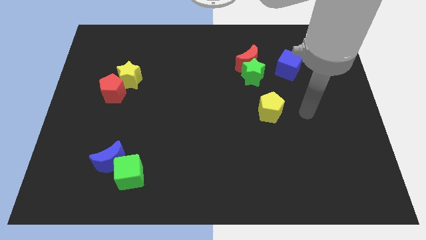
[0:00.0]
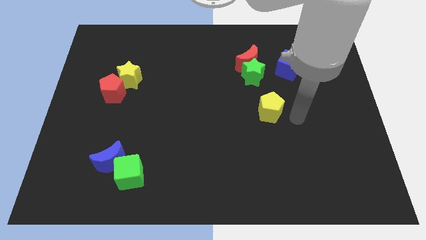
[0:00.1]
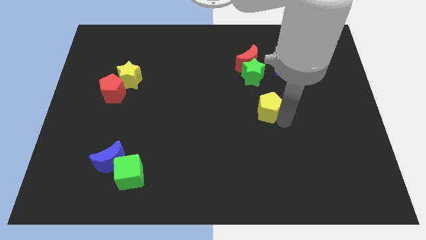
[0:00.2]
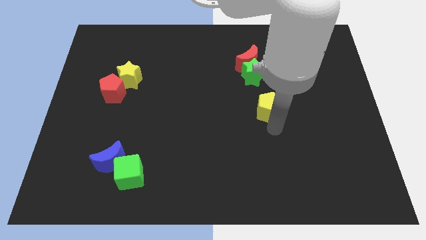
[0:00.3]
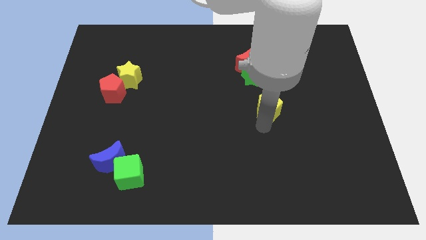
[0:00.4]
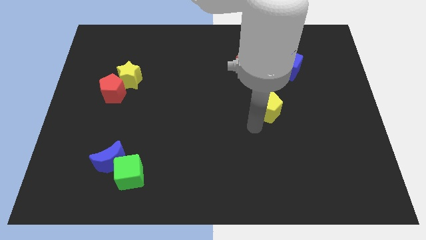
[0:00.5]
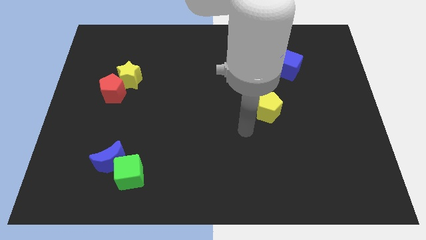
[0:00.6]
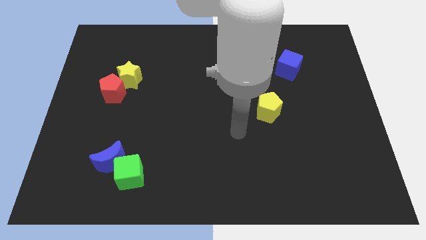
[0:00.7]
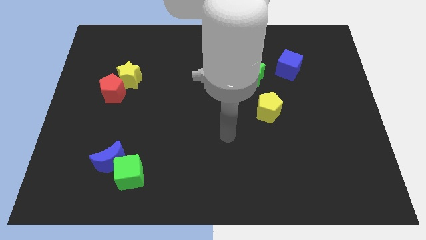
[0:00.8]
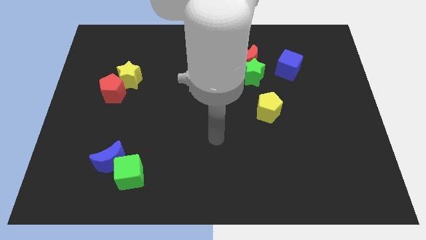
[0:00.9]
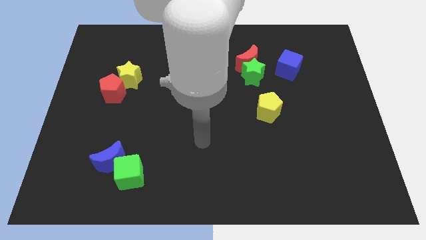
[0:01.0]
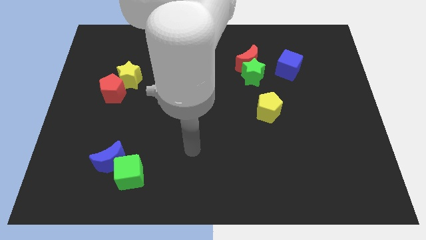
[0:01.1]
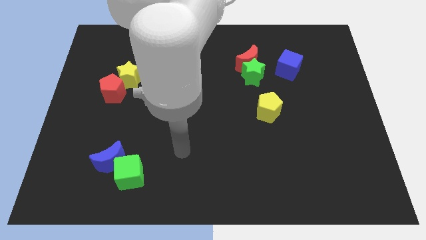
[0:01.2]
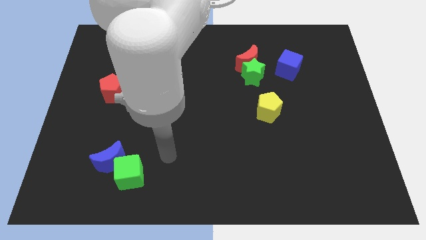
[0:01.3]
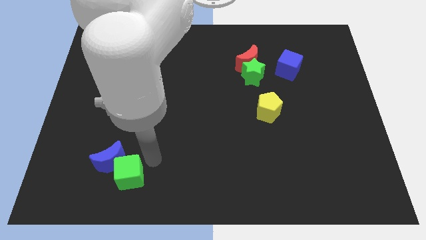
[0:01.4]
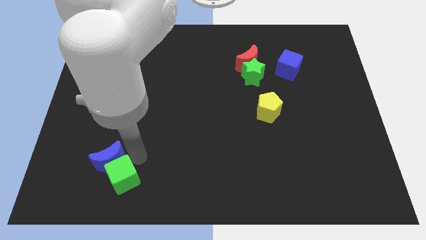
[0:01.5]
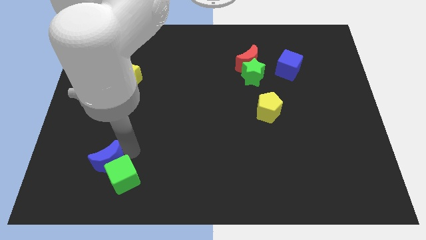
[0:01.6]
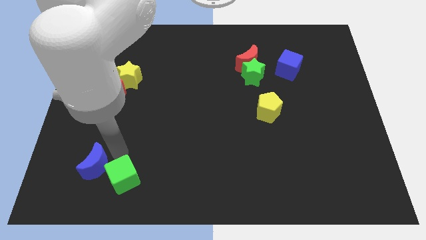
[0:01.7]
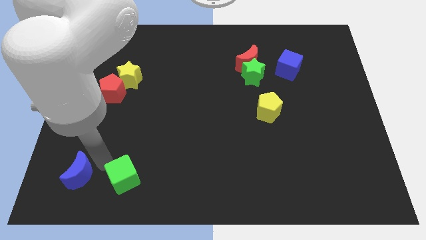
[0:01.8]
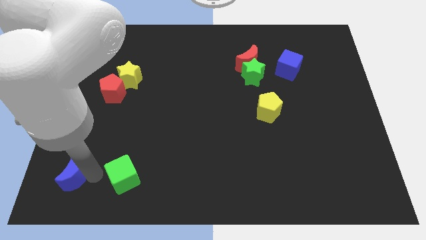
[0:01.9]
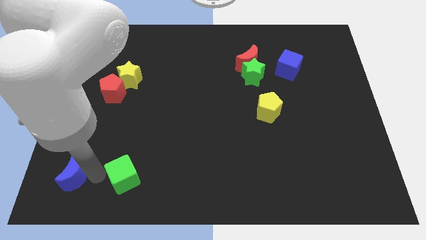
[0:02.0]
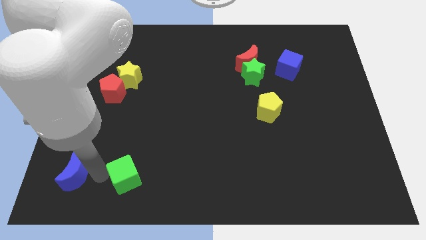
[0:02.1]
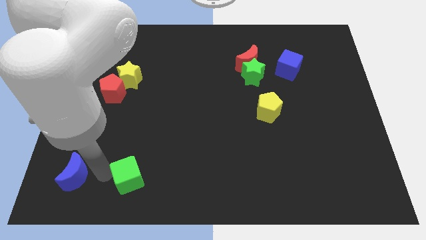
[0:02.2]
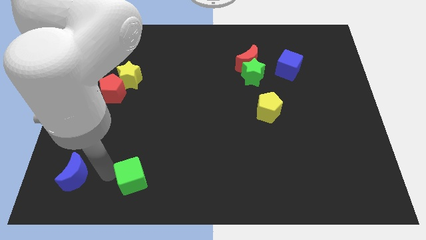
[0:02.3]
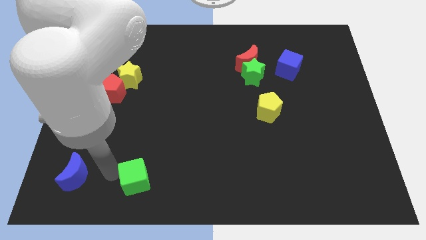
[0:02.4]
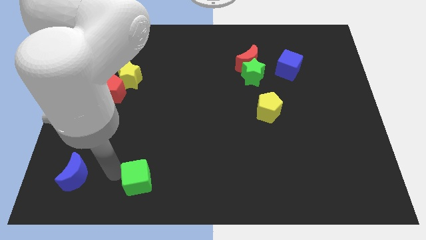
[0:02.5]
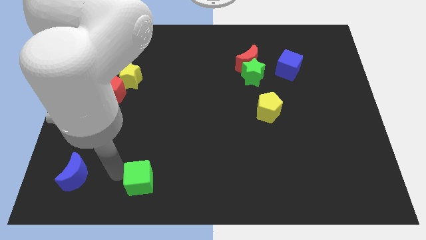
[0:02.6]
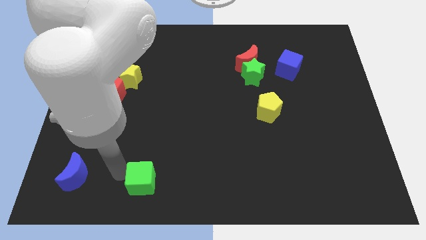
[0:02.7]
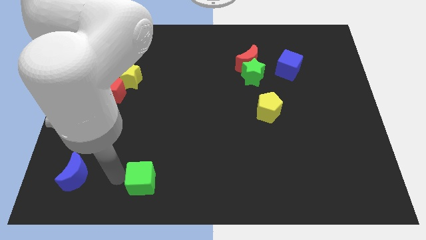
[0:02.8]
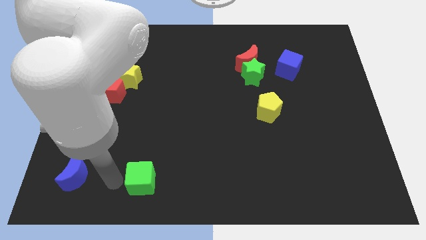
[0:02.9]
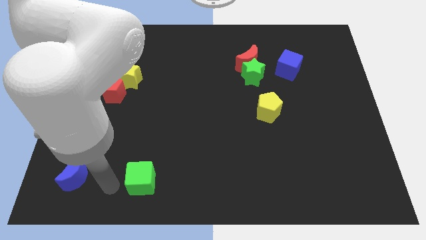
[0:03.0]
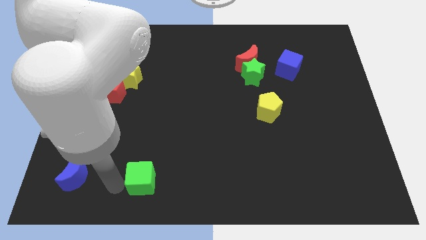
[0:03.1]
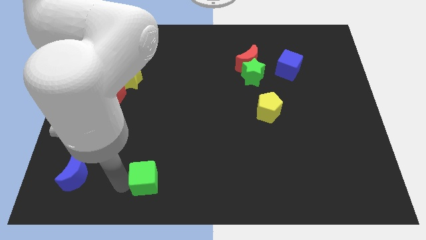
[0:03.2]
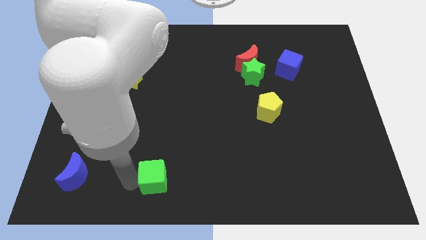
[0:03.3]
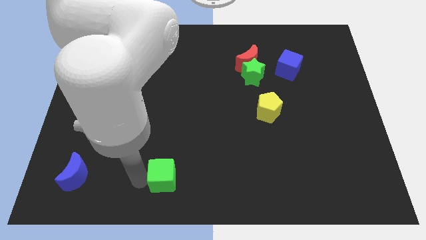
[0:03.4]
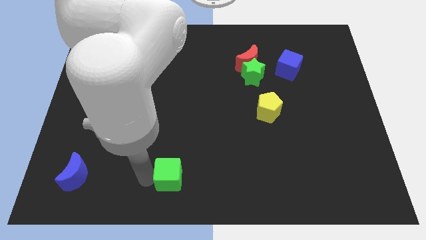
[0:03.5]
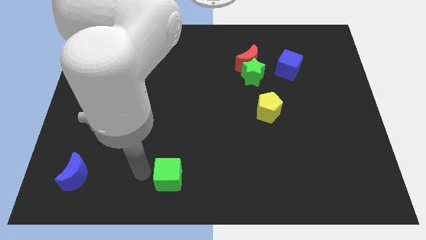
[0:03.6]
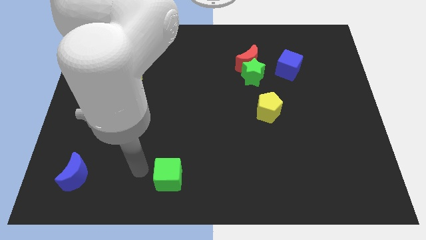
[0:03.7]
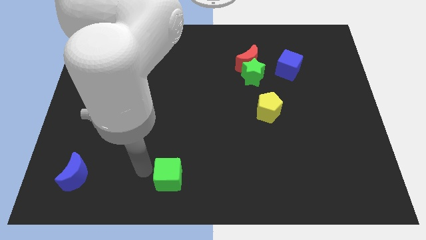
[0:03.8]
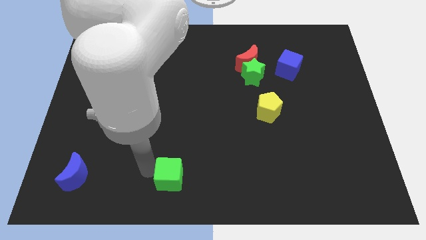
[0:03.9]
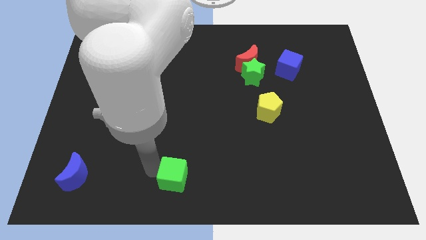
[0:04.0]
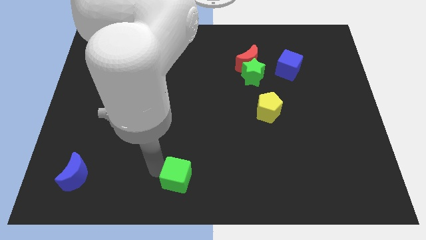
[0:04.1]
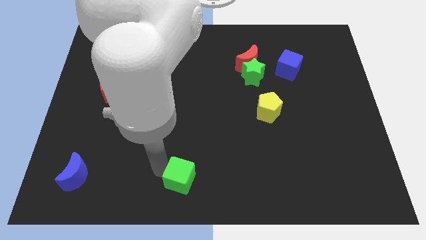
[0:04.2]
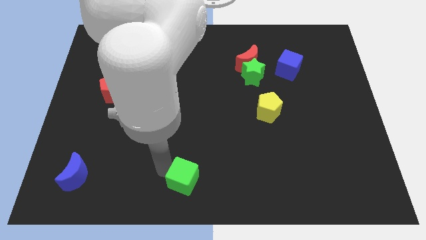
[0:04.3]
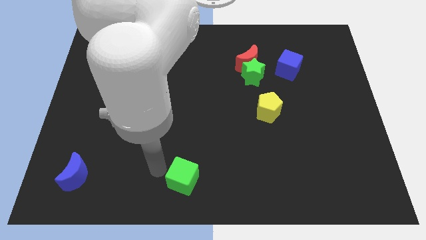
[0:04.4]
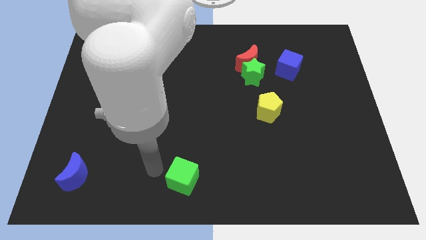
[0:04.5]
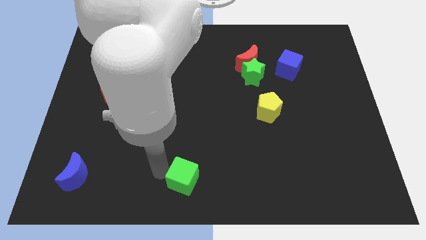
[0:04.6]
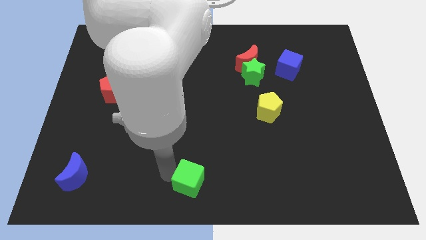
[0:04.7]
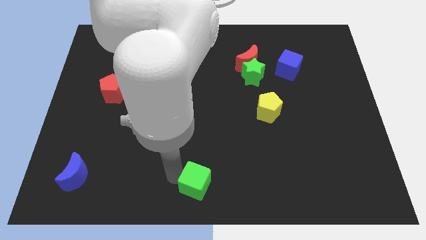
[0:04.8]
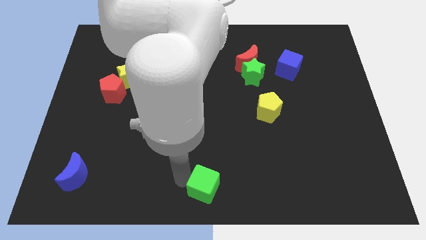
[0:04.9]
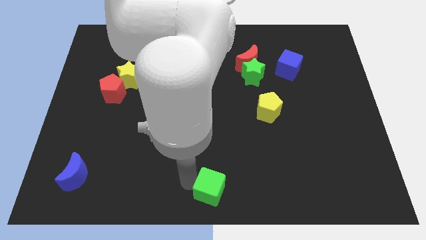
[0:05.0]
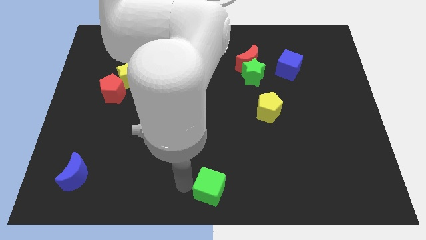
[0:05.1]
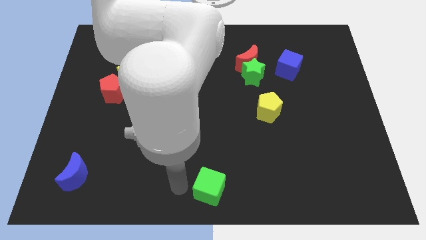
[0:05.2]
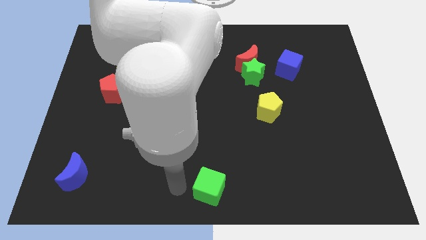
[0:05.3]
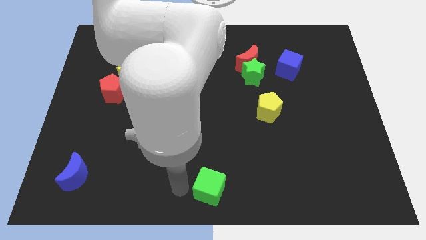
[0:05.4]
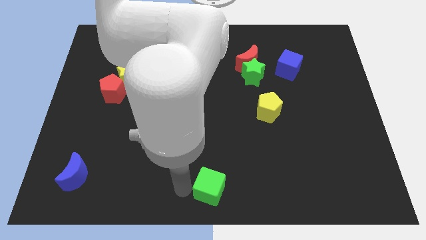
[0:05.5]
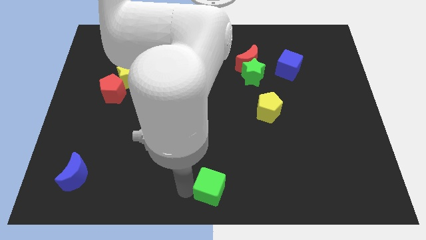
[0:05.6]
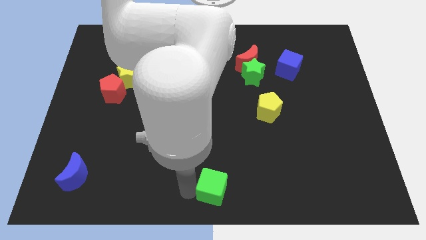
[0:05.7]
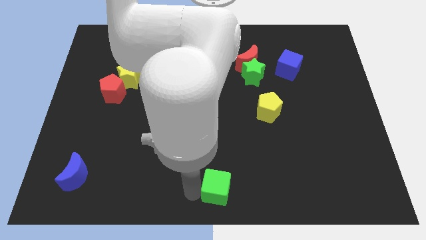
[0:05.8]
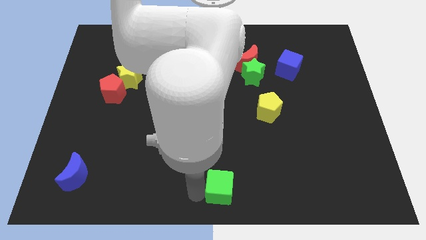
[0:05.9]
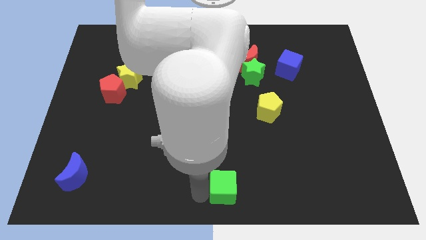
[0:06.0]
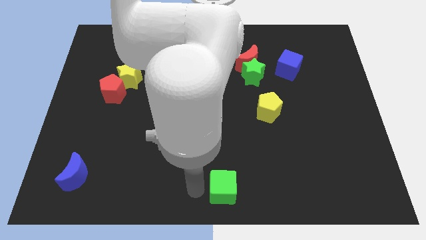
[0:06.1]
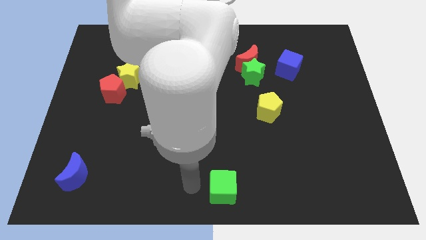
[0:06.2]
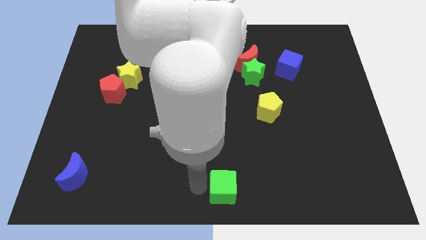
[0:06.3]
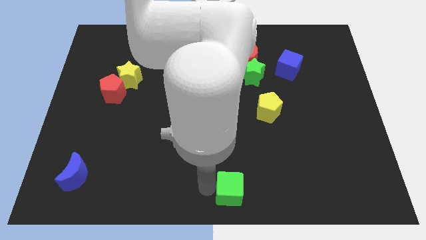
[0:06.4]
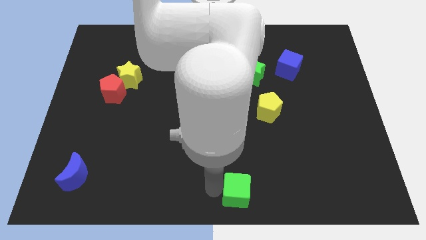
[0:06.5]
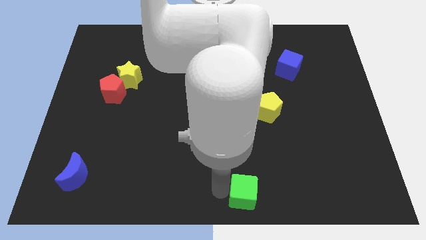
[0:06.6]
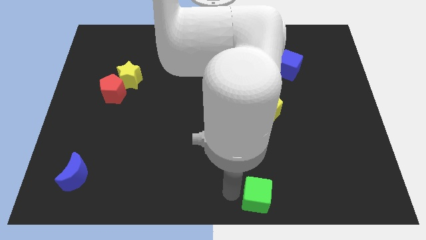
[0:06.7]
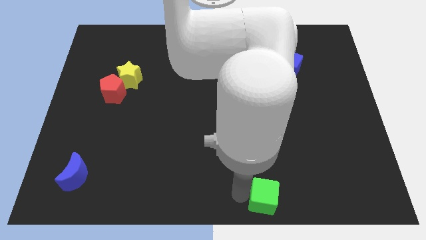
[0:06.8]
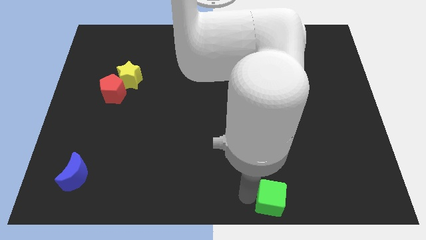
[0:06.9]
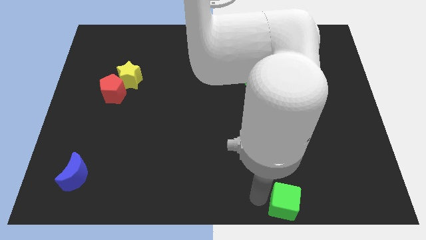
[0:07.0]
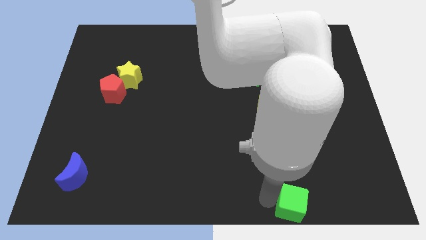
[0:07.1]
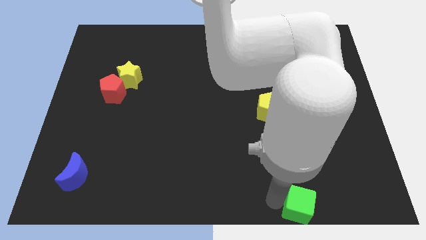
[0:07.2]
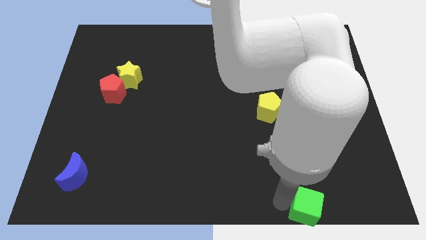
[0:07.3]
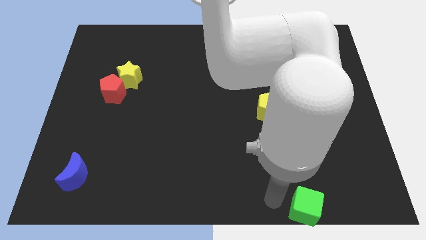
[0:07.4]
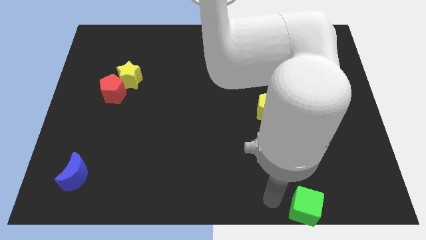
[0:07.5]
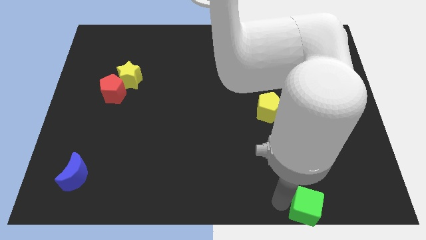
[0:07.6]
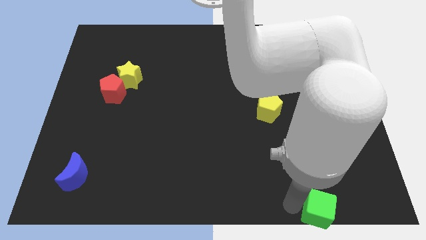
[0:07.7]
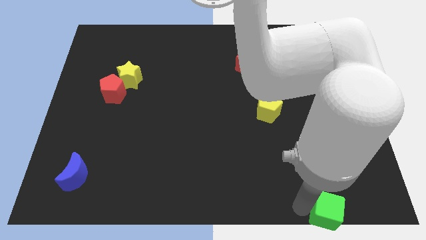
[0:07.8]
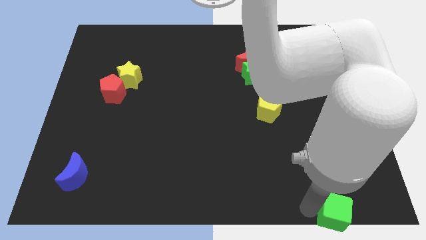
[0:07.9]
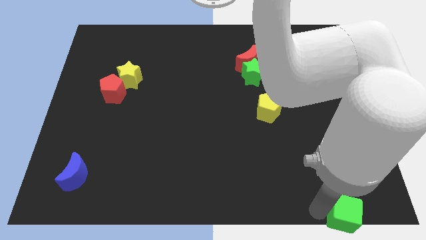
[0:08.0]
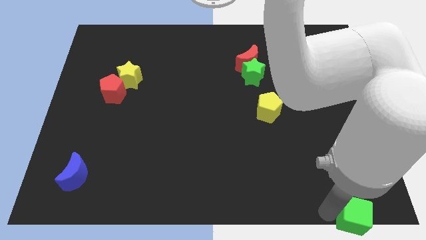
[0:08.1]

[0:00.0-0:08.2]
put the green cube to the bottom right of the board
